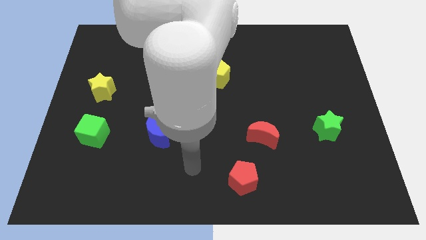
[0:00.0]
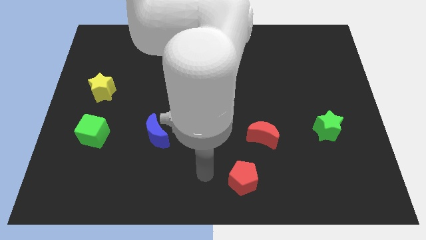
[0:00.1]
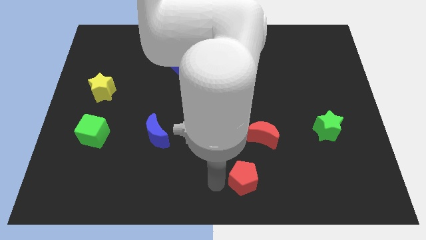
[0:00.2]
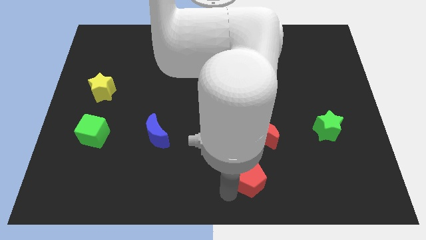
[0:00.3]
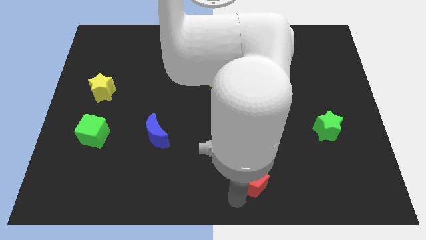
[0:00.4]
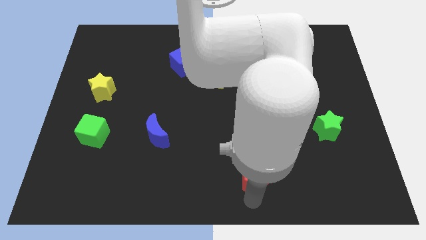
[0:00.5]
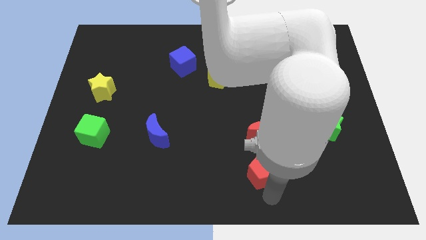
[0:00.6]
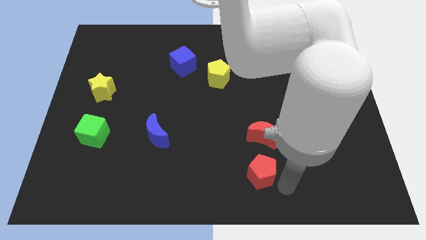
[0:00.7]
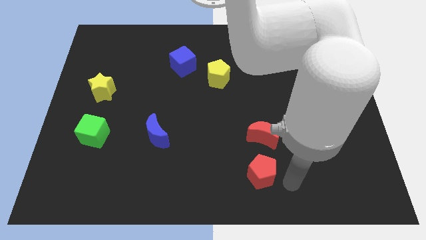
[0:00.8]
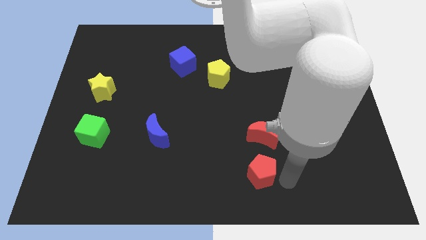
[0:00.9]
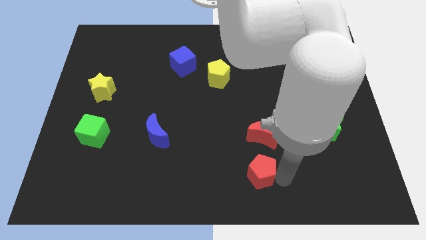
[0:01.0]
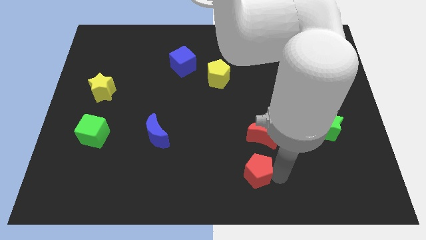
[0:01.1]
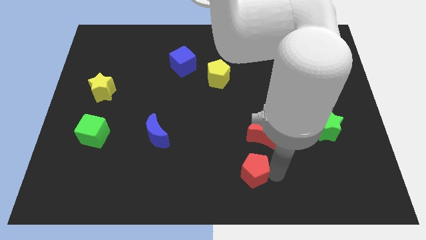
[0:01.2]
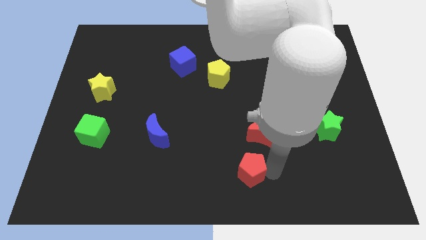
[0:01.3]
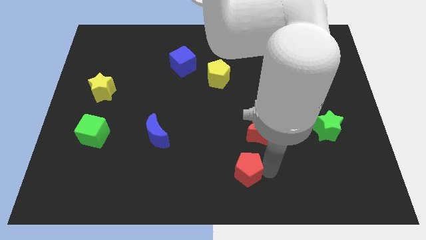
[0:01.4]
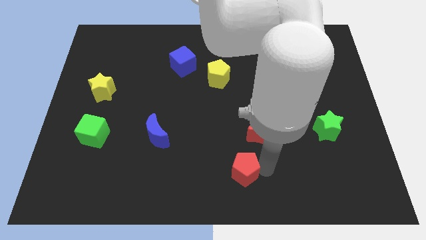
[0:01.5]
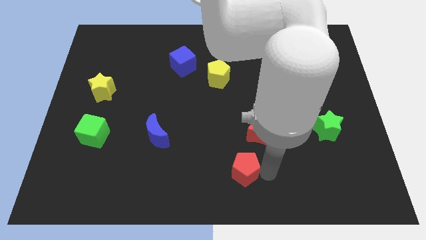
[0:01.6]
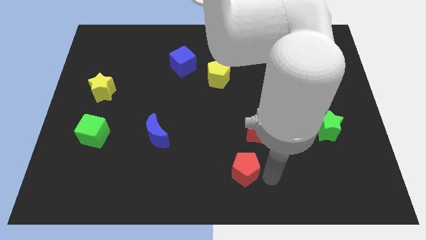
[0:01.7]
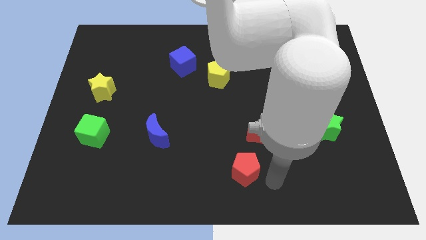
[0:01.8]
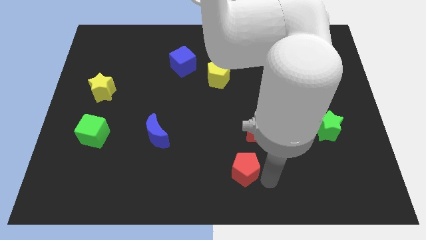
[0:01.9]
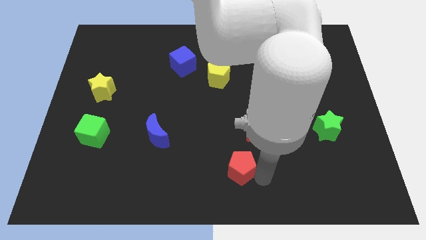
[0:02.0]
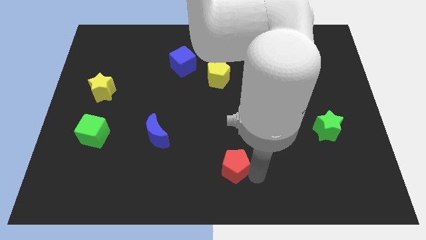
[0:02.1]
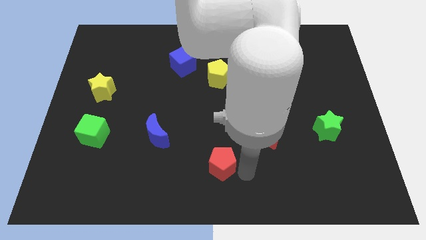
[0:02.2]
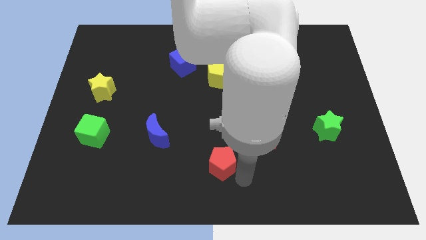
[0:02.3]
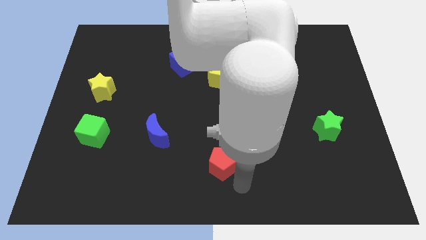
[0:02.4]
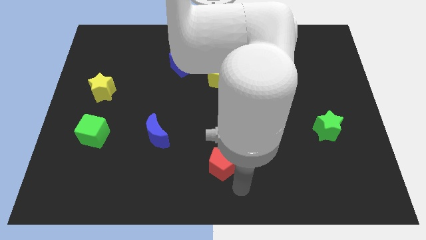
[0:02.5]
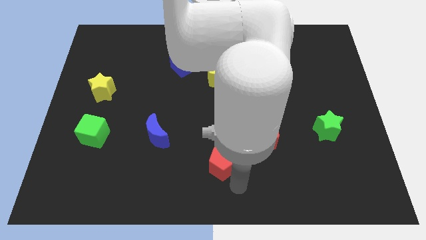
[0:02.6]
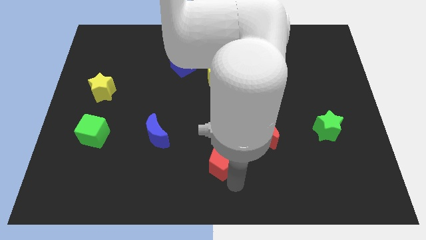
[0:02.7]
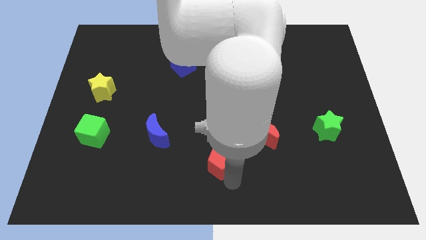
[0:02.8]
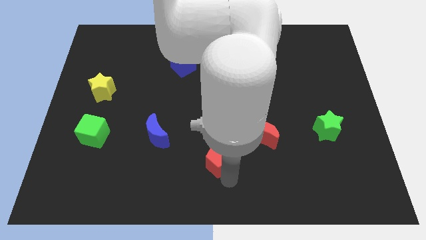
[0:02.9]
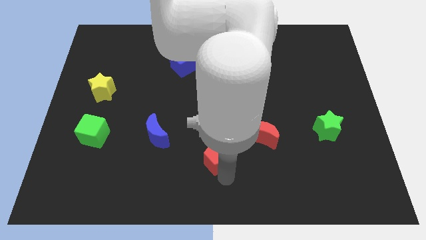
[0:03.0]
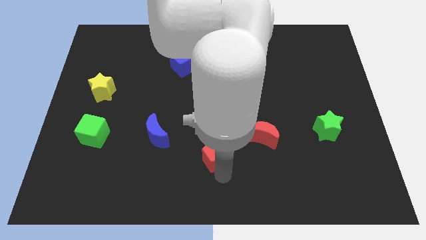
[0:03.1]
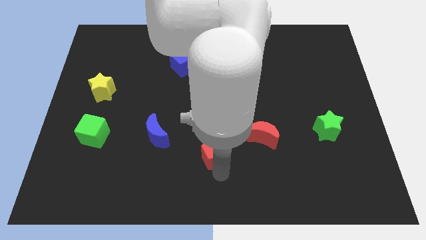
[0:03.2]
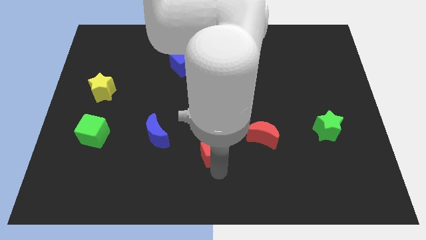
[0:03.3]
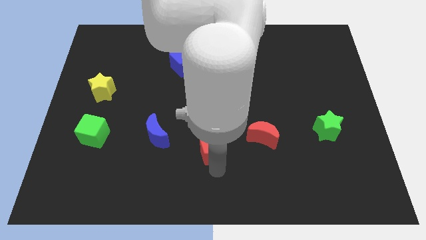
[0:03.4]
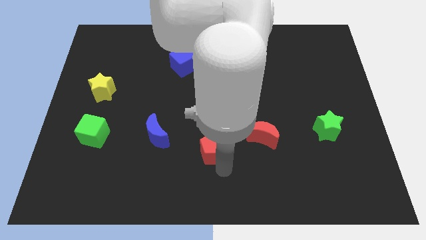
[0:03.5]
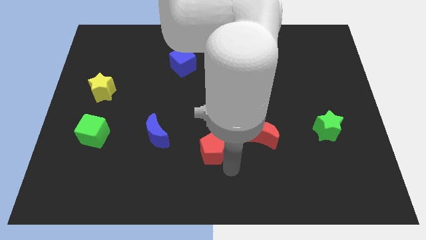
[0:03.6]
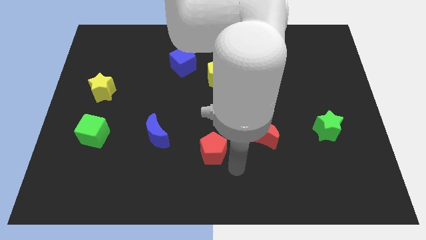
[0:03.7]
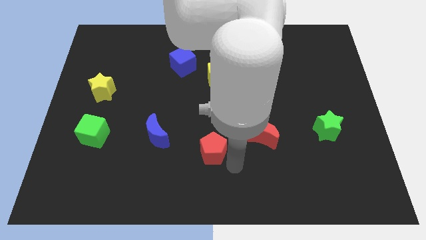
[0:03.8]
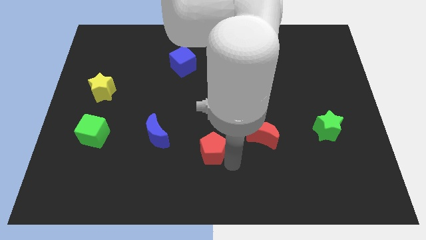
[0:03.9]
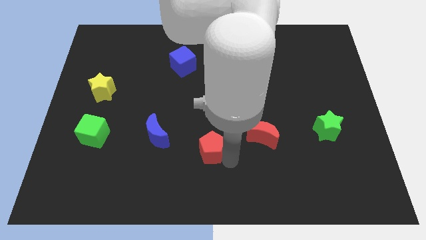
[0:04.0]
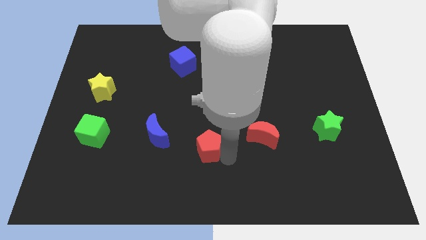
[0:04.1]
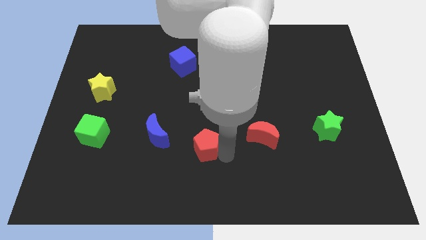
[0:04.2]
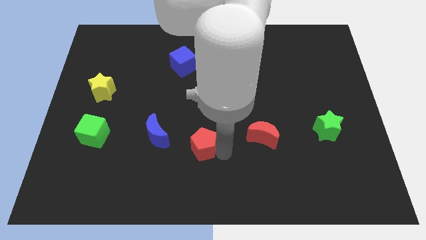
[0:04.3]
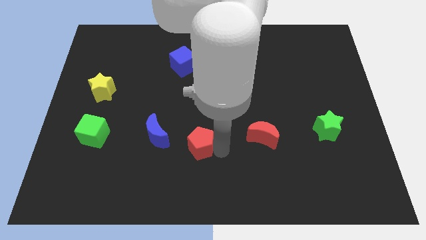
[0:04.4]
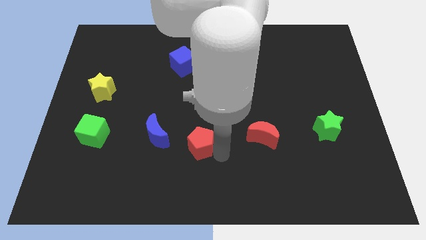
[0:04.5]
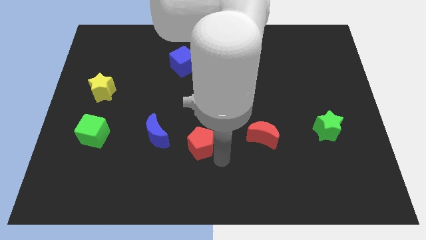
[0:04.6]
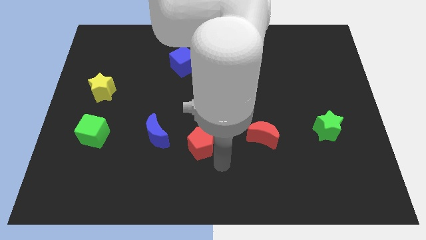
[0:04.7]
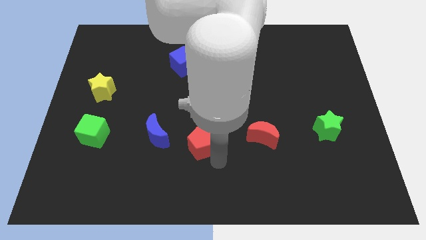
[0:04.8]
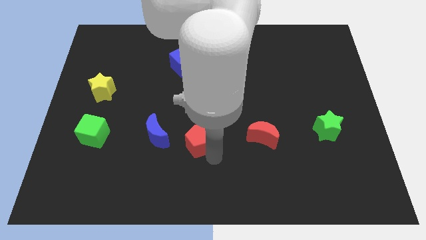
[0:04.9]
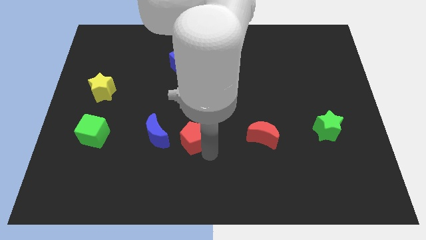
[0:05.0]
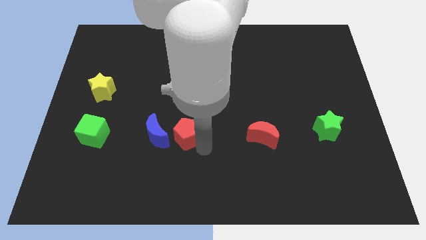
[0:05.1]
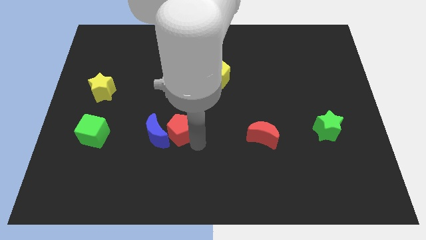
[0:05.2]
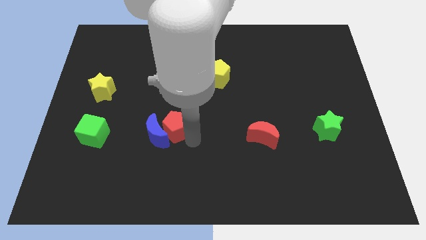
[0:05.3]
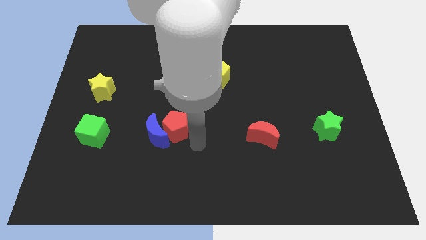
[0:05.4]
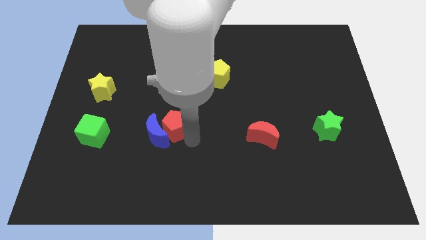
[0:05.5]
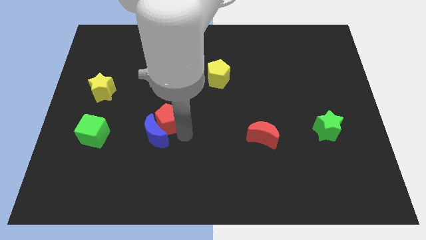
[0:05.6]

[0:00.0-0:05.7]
push the red pentagon diagonally up and left

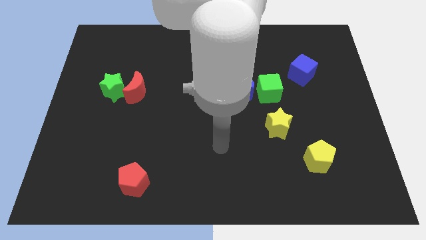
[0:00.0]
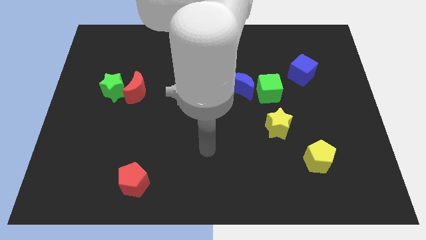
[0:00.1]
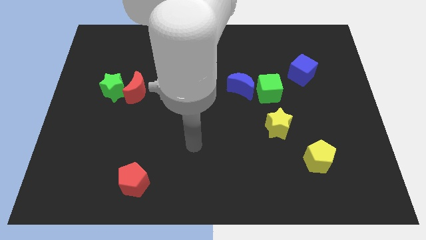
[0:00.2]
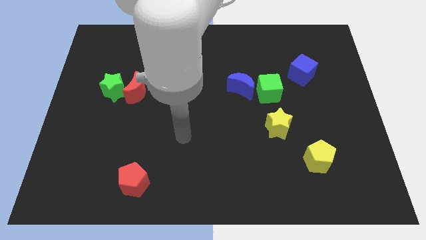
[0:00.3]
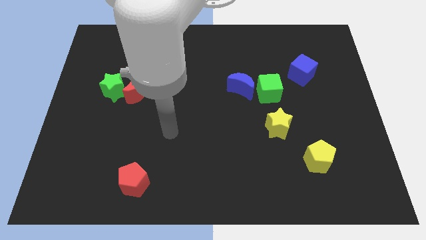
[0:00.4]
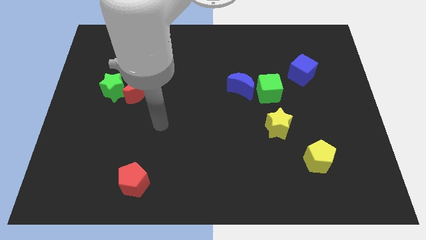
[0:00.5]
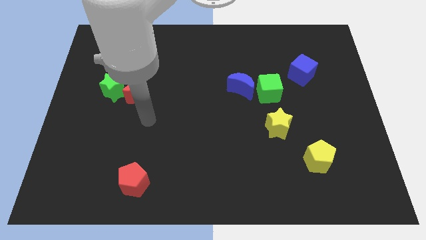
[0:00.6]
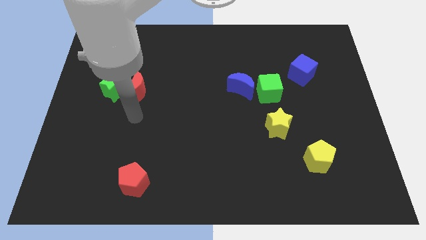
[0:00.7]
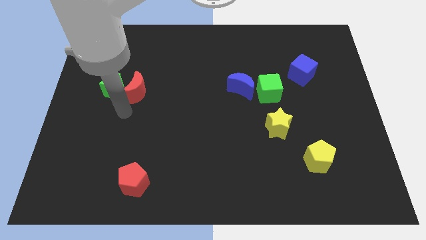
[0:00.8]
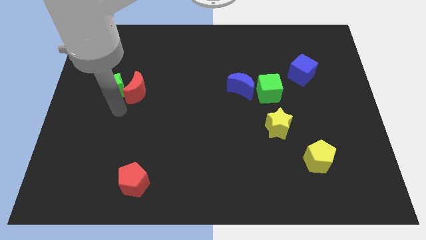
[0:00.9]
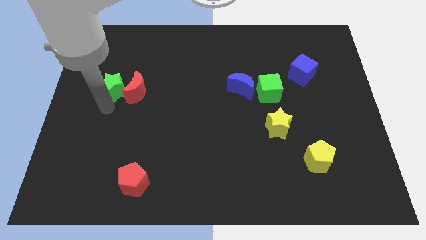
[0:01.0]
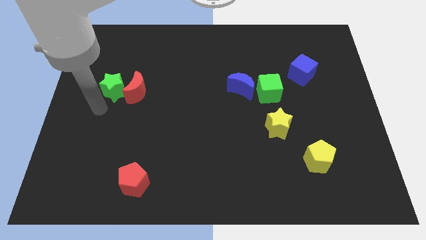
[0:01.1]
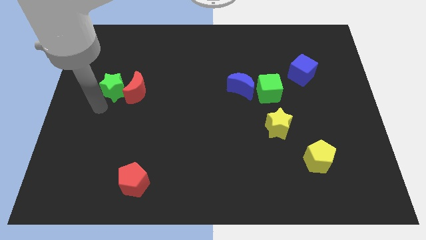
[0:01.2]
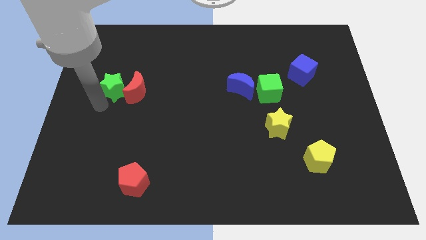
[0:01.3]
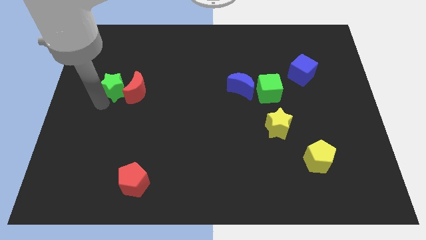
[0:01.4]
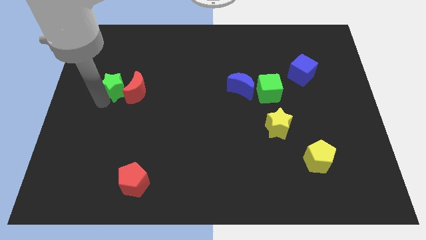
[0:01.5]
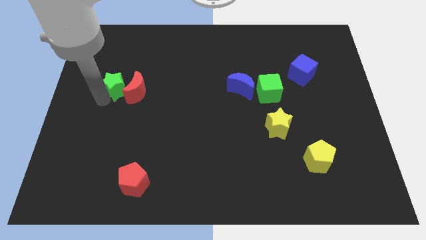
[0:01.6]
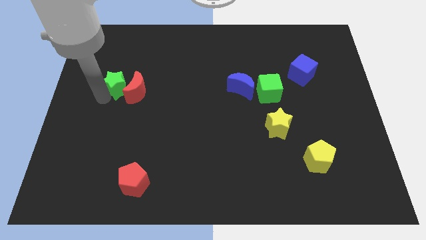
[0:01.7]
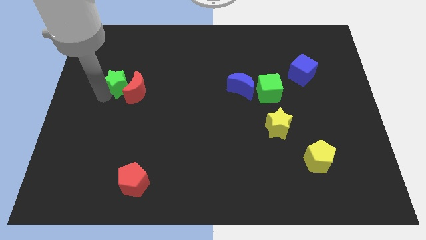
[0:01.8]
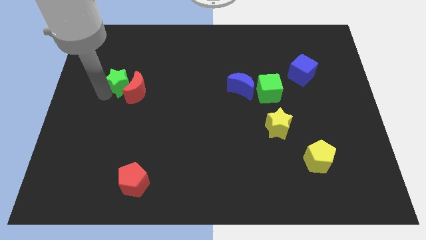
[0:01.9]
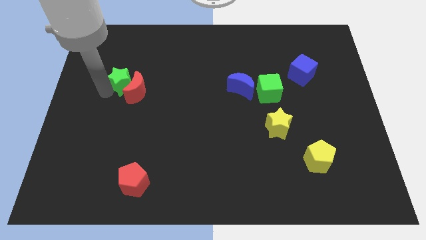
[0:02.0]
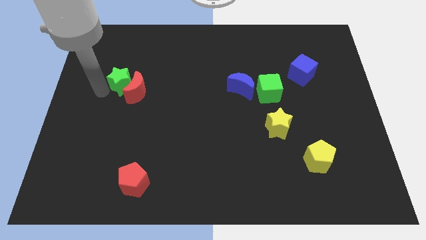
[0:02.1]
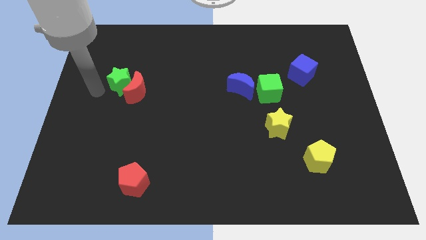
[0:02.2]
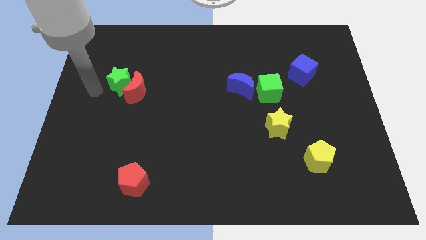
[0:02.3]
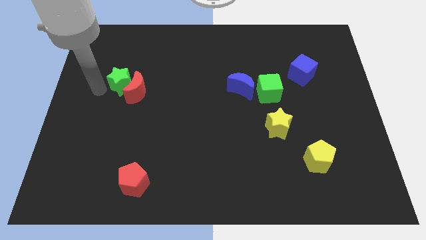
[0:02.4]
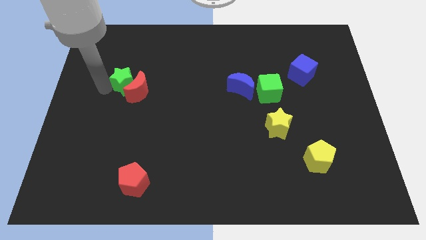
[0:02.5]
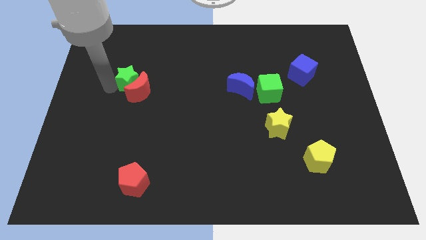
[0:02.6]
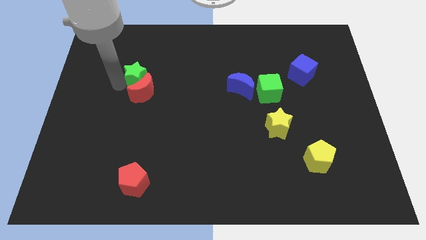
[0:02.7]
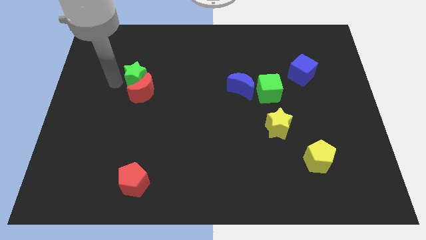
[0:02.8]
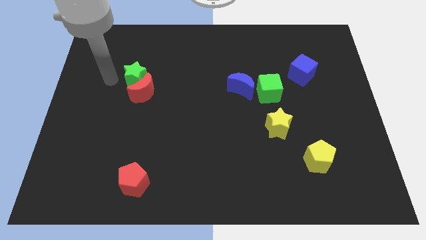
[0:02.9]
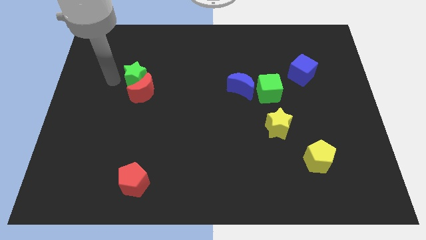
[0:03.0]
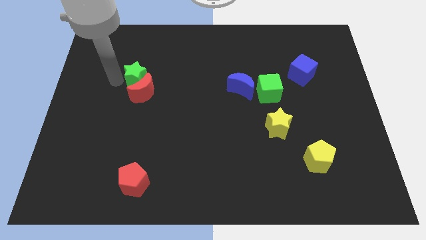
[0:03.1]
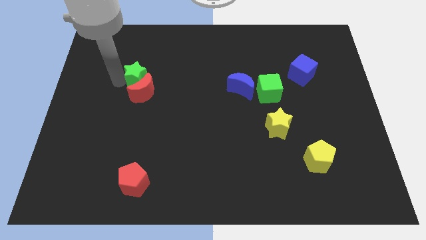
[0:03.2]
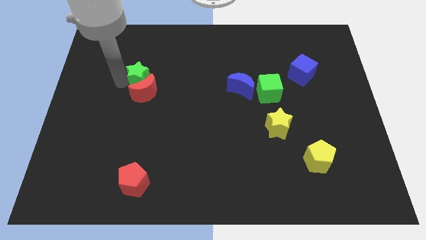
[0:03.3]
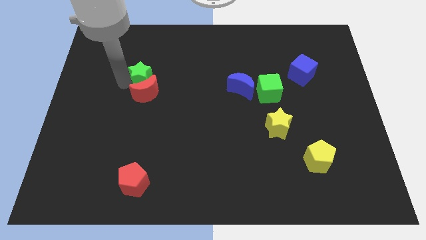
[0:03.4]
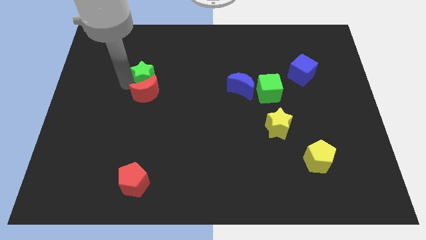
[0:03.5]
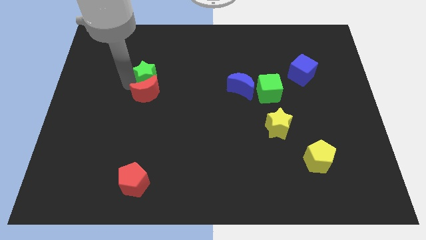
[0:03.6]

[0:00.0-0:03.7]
slightly push the green star to the right
